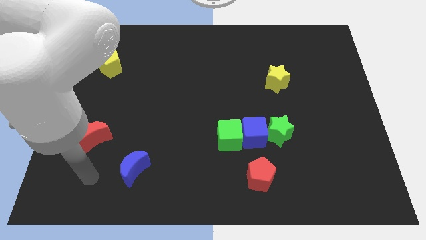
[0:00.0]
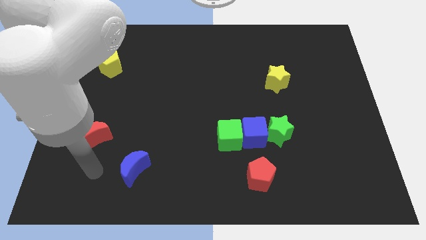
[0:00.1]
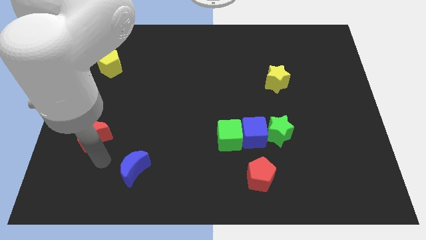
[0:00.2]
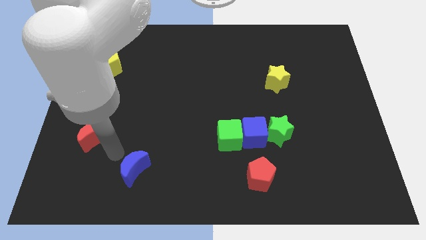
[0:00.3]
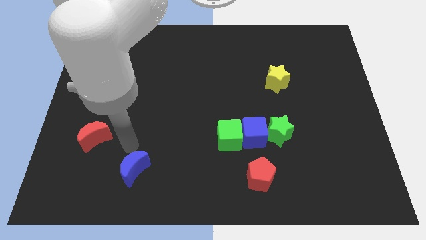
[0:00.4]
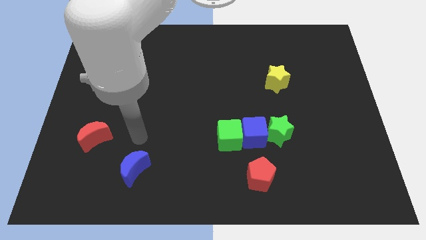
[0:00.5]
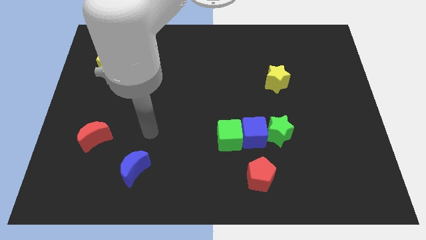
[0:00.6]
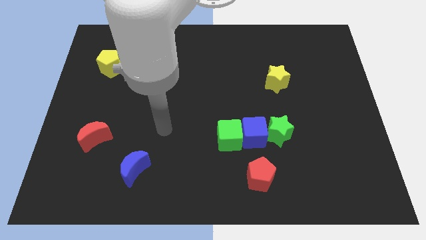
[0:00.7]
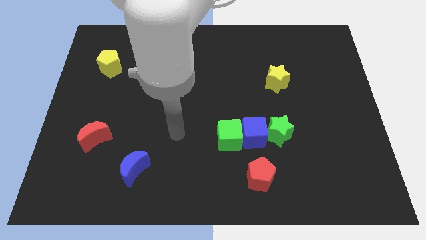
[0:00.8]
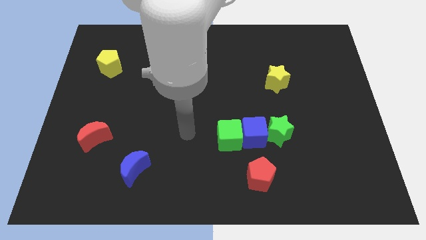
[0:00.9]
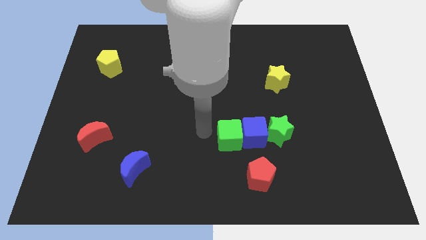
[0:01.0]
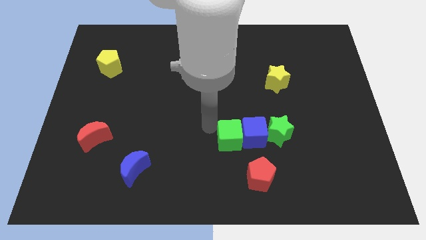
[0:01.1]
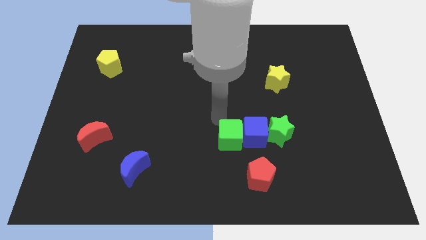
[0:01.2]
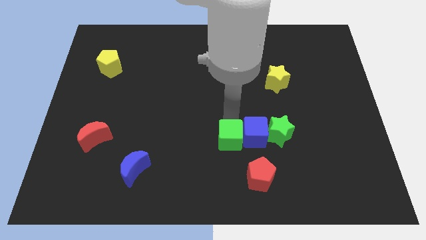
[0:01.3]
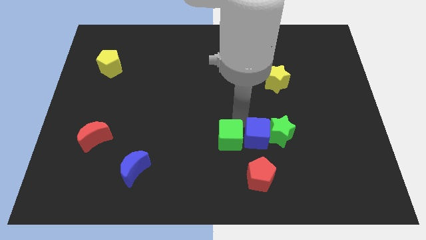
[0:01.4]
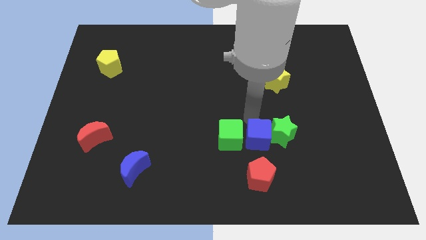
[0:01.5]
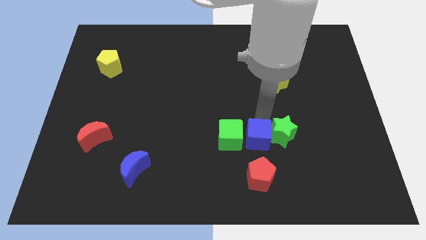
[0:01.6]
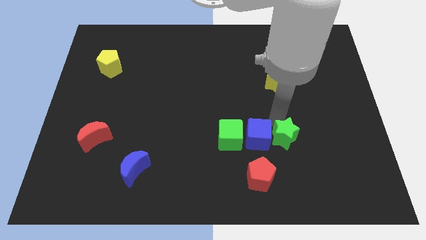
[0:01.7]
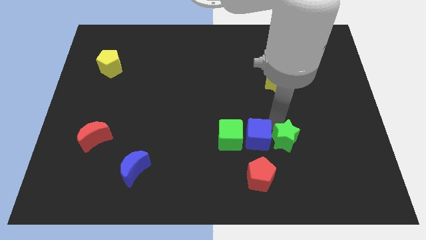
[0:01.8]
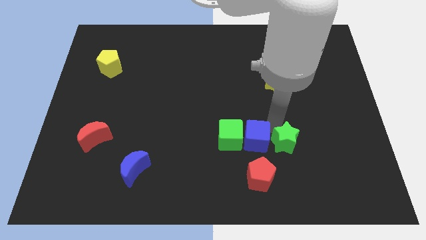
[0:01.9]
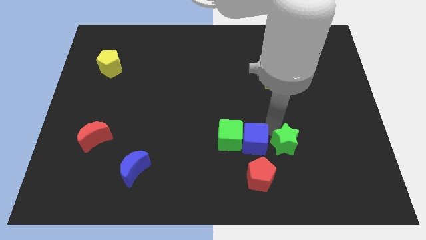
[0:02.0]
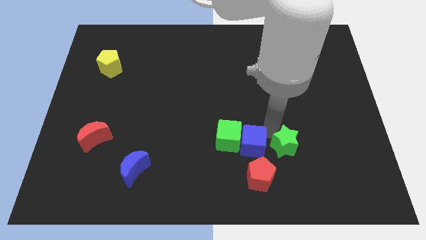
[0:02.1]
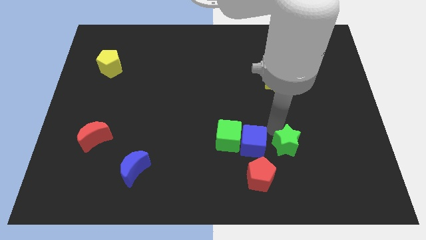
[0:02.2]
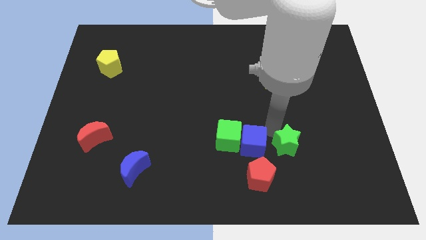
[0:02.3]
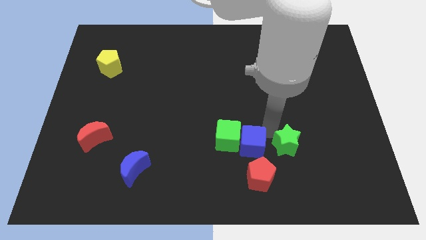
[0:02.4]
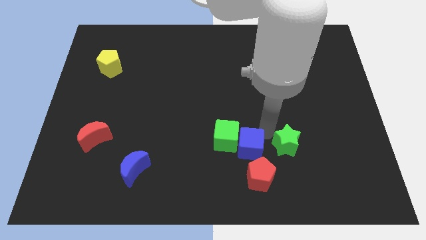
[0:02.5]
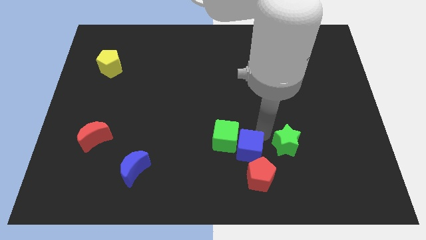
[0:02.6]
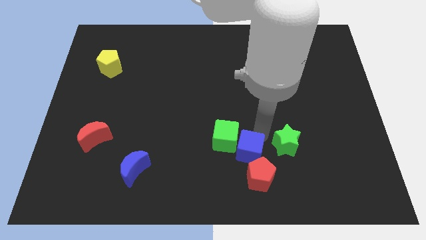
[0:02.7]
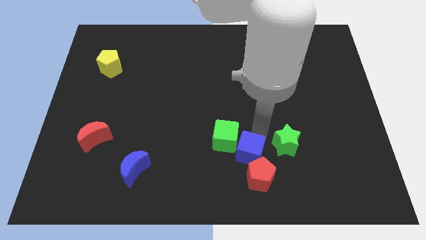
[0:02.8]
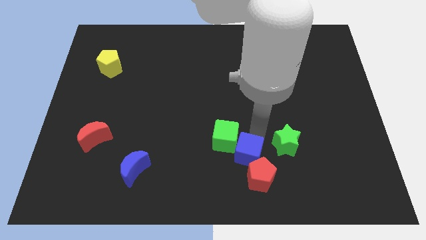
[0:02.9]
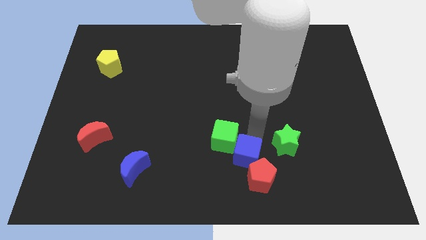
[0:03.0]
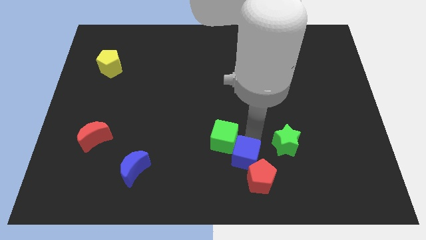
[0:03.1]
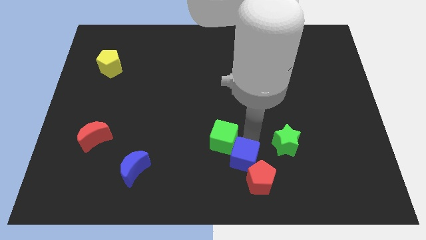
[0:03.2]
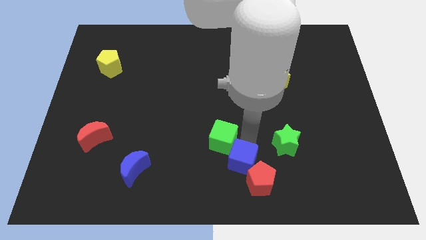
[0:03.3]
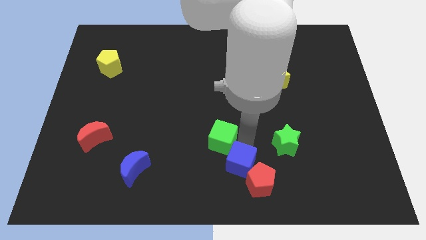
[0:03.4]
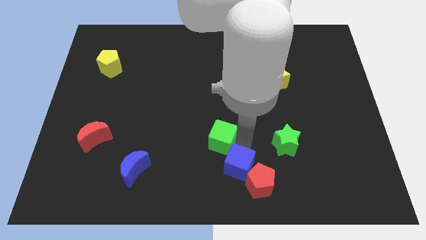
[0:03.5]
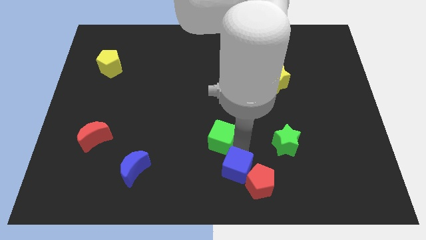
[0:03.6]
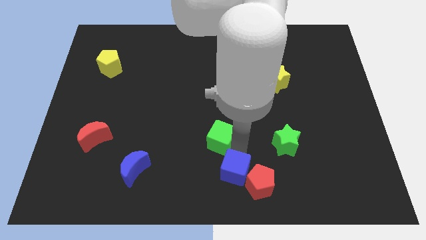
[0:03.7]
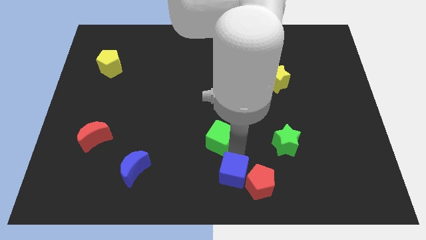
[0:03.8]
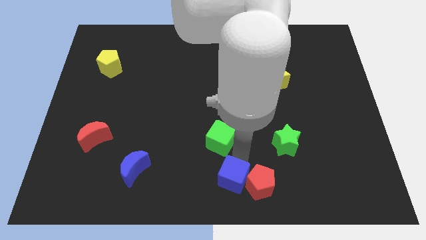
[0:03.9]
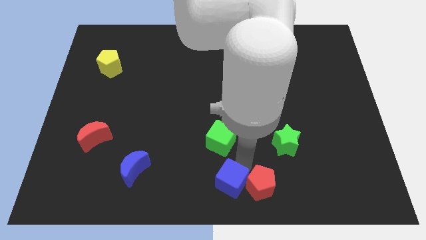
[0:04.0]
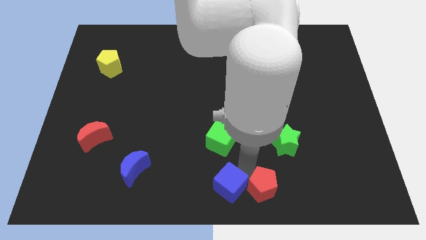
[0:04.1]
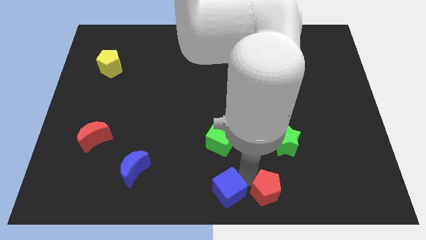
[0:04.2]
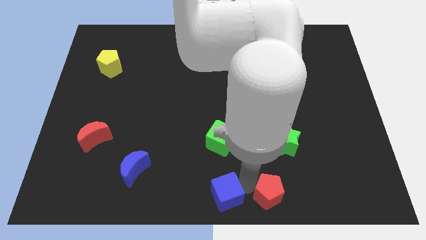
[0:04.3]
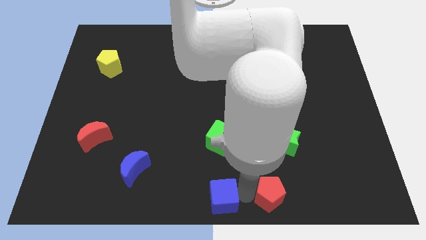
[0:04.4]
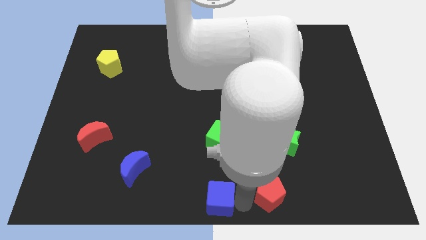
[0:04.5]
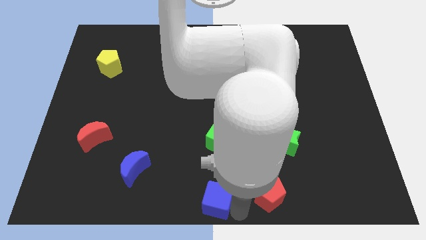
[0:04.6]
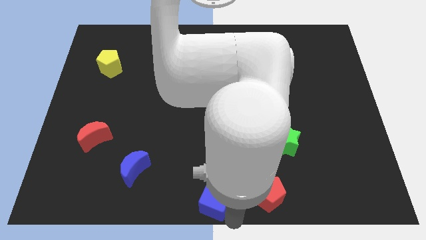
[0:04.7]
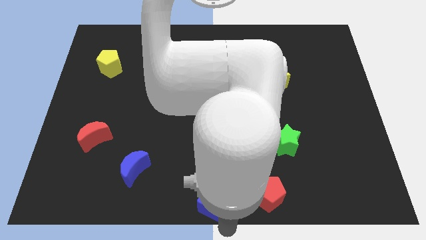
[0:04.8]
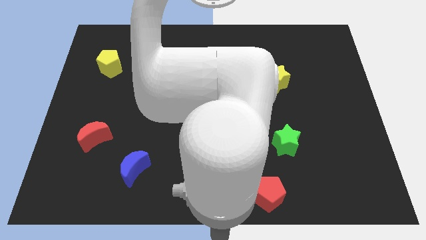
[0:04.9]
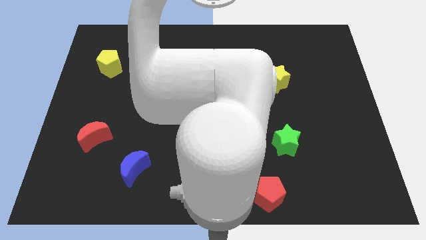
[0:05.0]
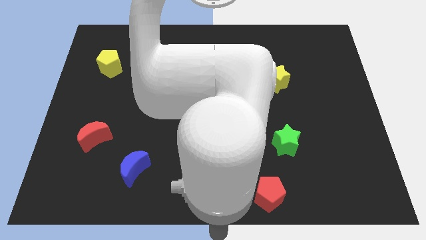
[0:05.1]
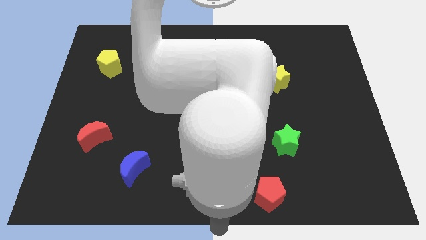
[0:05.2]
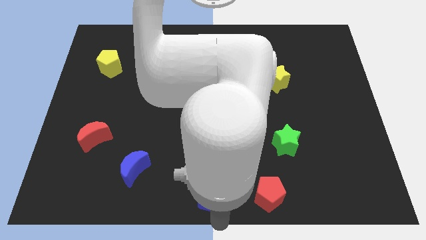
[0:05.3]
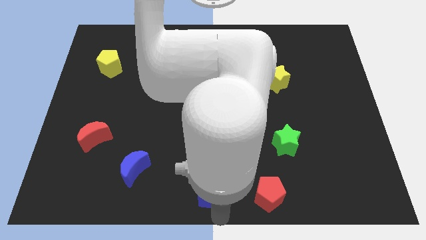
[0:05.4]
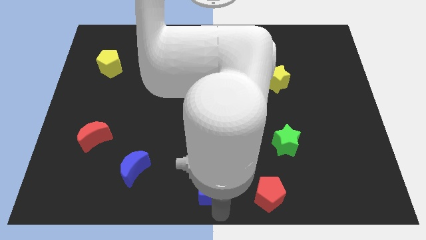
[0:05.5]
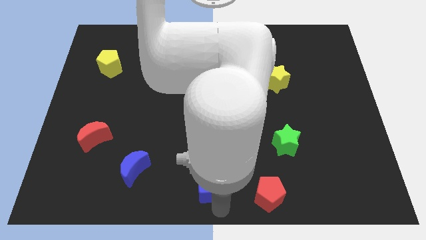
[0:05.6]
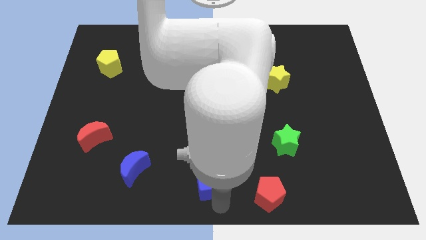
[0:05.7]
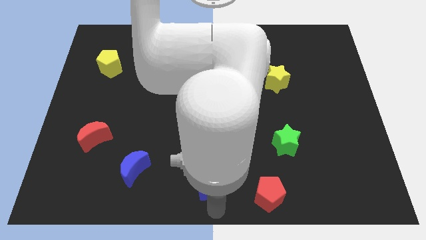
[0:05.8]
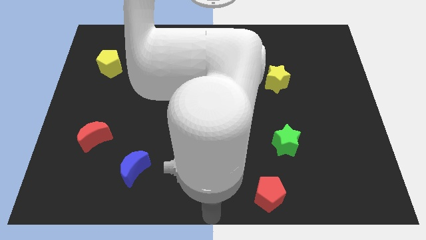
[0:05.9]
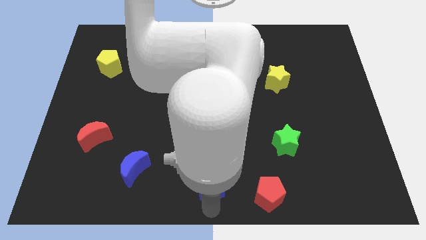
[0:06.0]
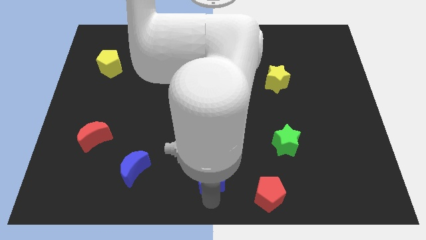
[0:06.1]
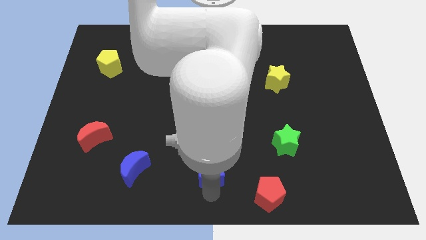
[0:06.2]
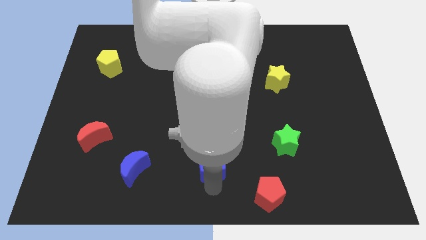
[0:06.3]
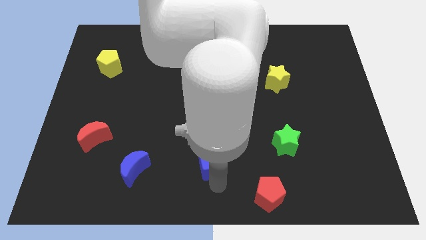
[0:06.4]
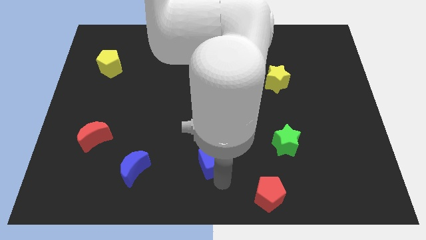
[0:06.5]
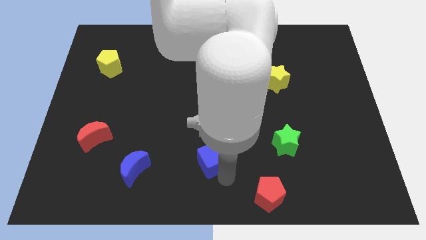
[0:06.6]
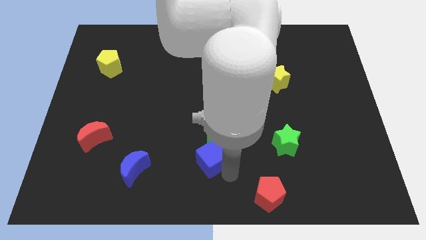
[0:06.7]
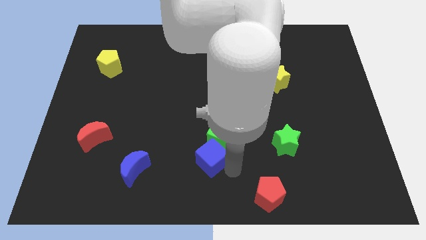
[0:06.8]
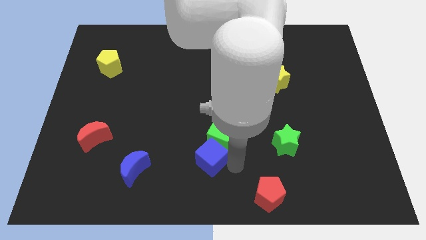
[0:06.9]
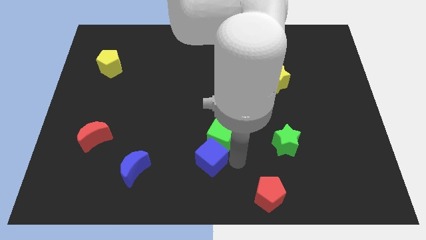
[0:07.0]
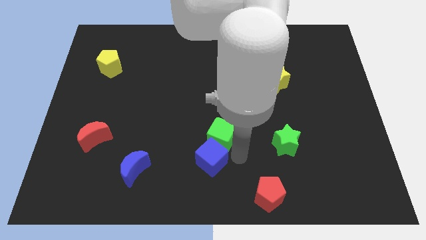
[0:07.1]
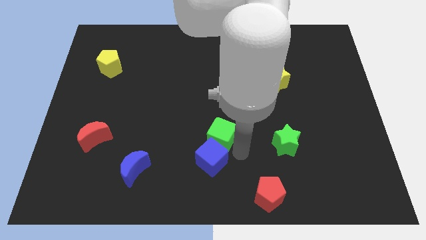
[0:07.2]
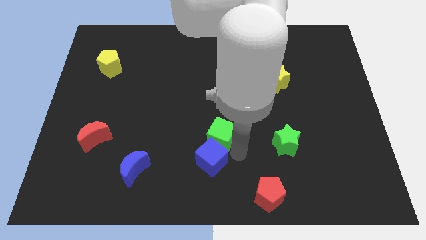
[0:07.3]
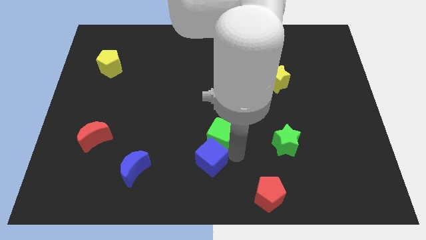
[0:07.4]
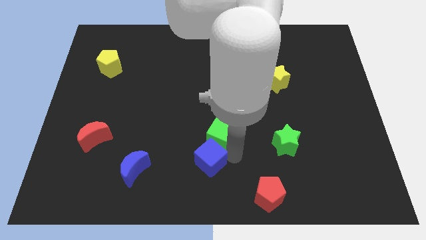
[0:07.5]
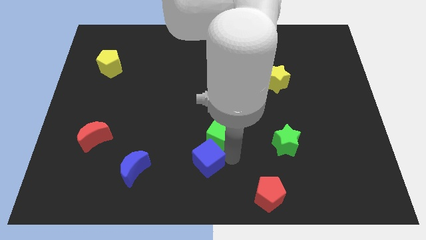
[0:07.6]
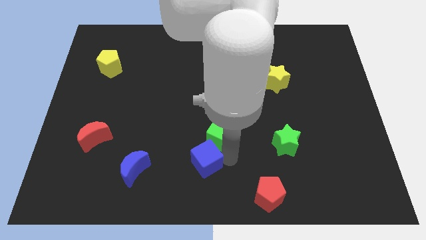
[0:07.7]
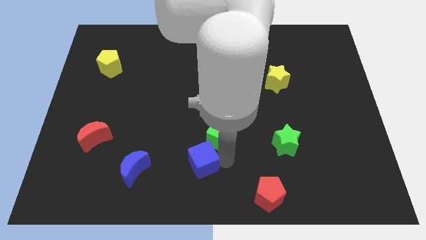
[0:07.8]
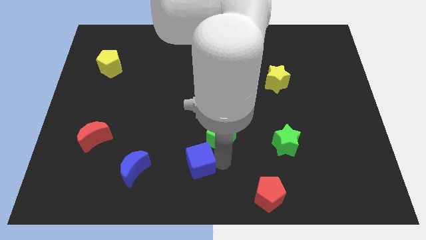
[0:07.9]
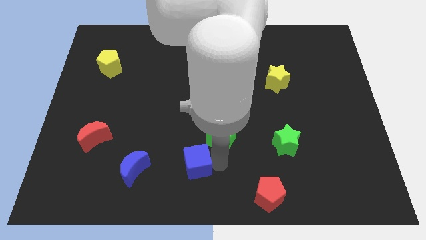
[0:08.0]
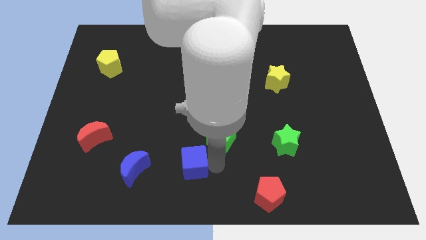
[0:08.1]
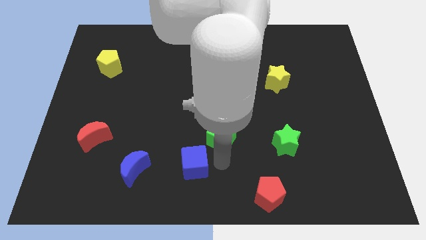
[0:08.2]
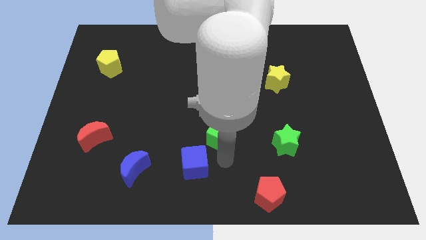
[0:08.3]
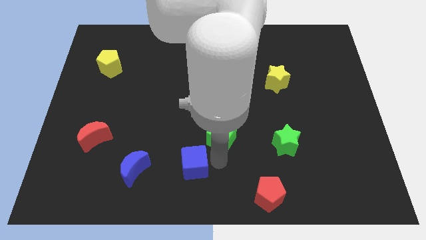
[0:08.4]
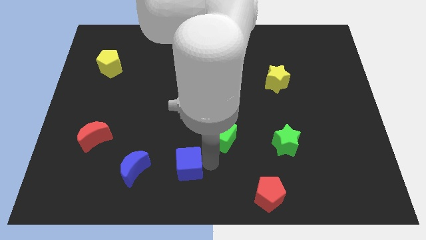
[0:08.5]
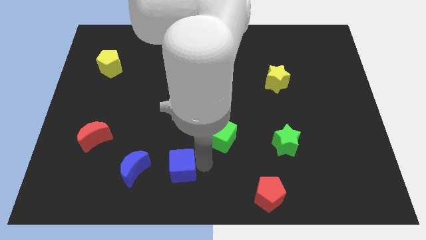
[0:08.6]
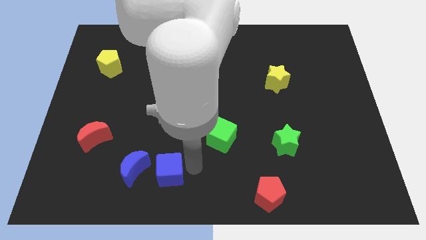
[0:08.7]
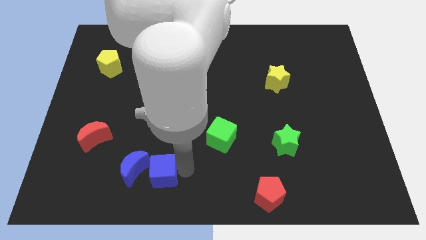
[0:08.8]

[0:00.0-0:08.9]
put the blue cube next to the blue moon
